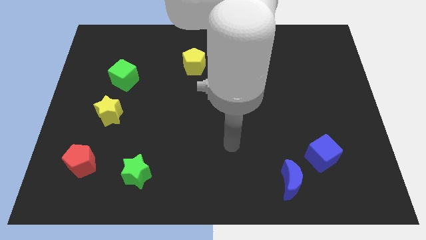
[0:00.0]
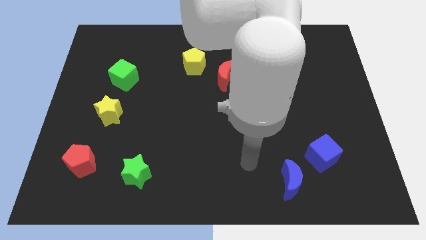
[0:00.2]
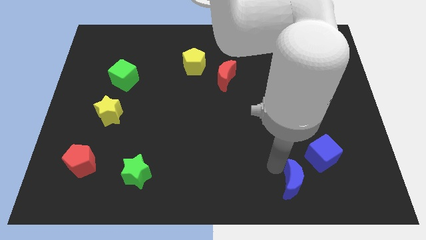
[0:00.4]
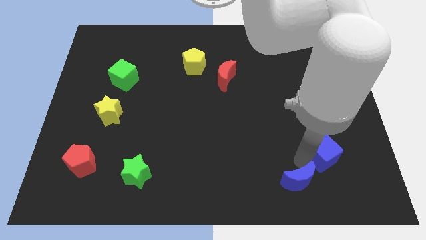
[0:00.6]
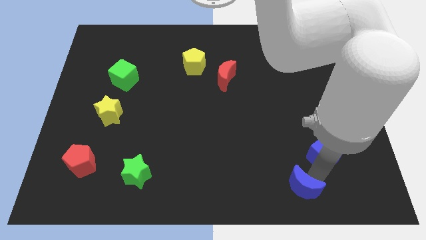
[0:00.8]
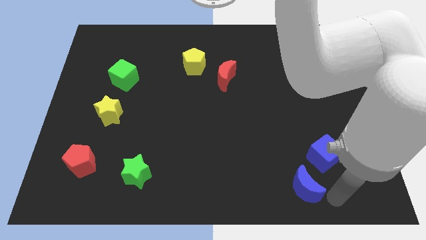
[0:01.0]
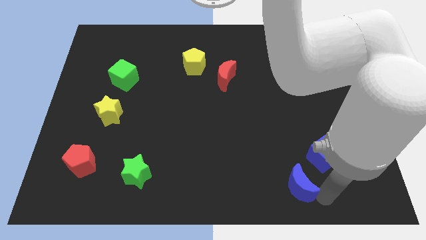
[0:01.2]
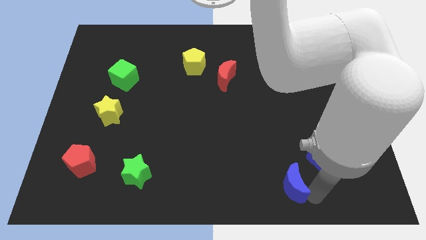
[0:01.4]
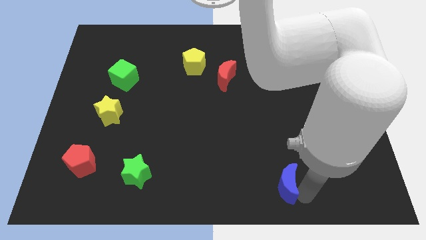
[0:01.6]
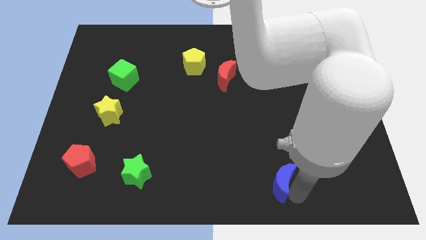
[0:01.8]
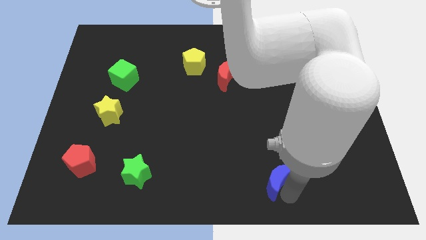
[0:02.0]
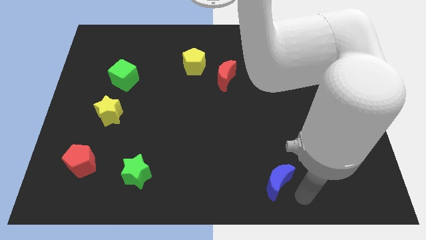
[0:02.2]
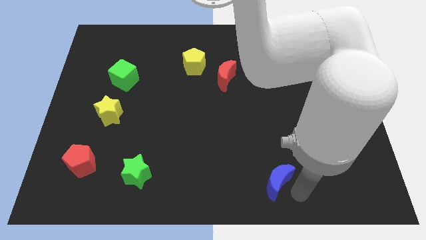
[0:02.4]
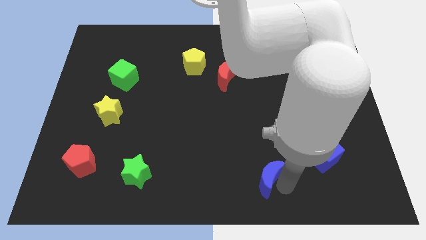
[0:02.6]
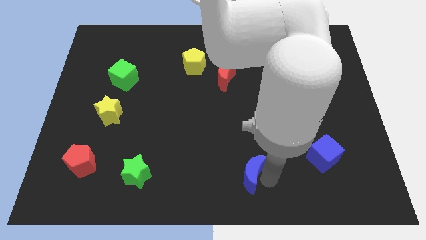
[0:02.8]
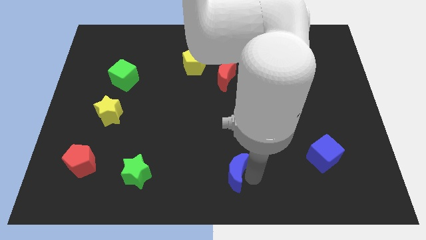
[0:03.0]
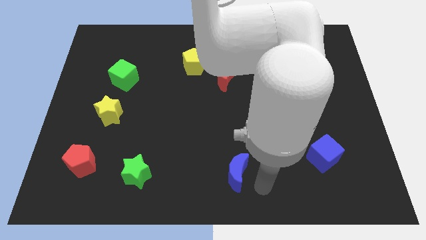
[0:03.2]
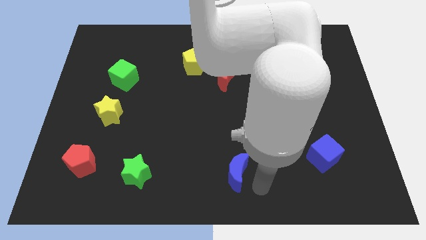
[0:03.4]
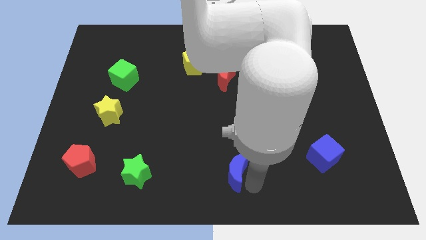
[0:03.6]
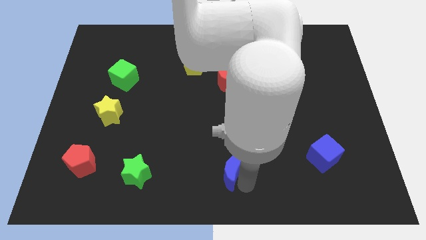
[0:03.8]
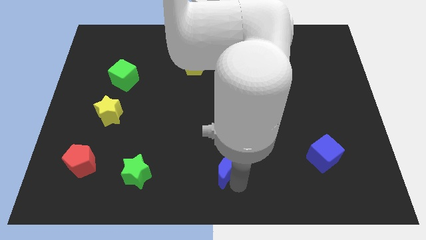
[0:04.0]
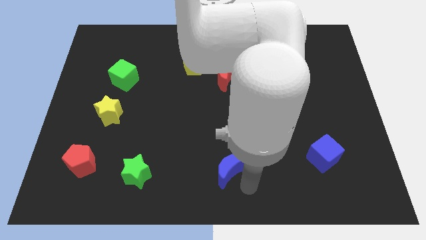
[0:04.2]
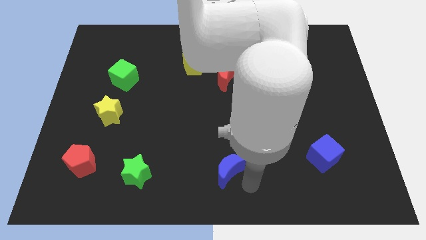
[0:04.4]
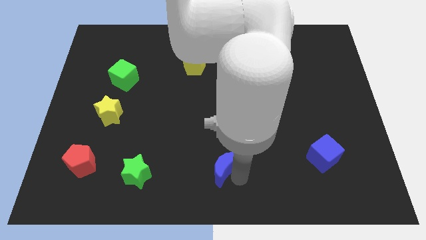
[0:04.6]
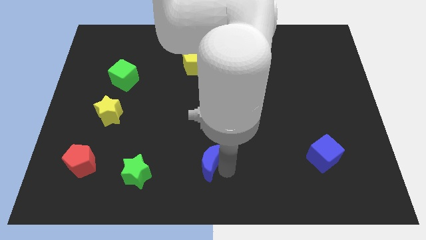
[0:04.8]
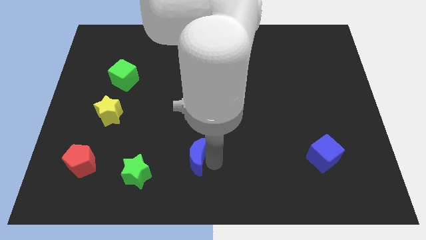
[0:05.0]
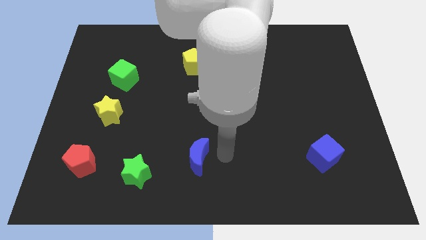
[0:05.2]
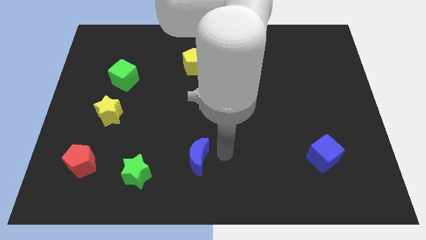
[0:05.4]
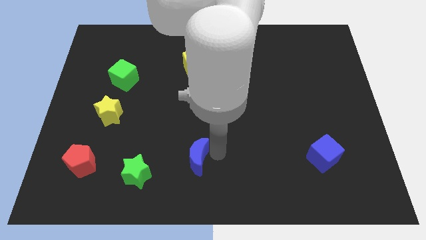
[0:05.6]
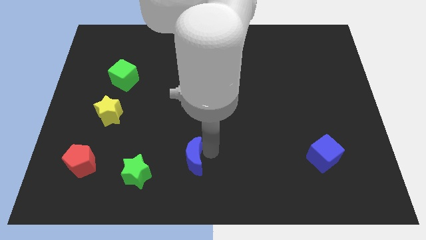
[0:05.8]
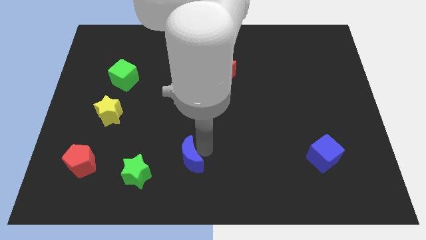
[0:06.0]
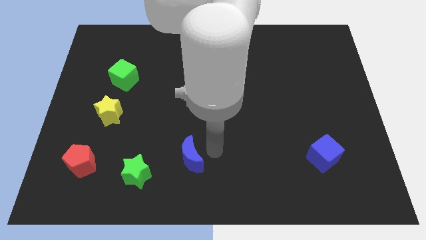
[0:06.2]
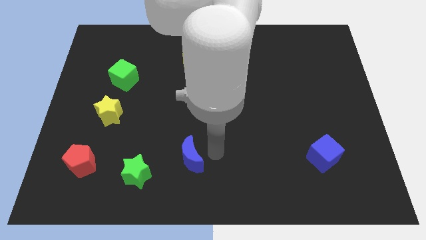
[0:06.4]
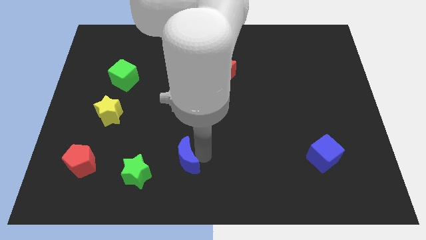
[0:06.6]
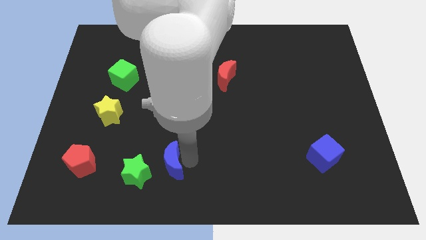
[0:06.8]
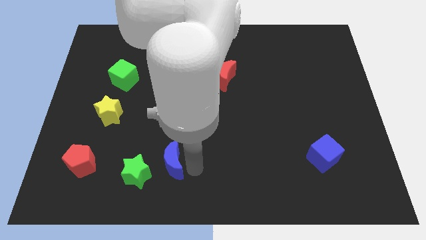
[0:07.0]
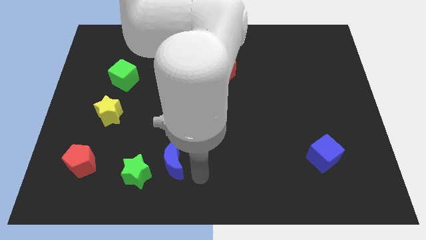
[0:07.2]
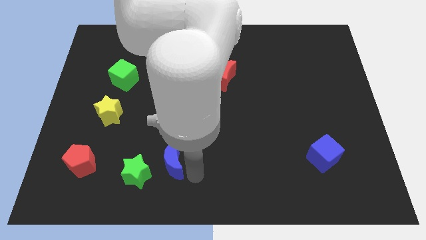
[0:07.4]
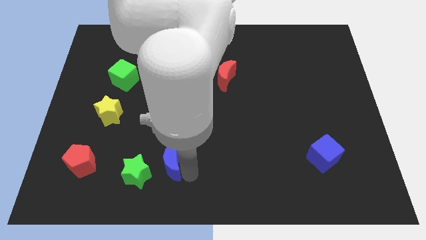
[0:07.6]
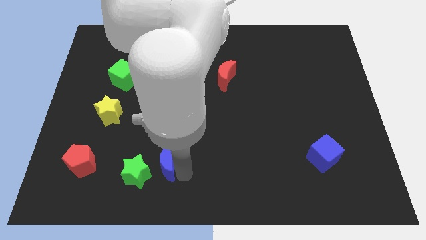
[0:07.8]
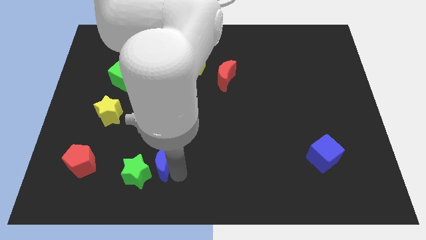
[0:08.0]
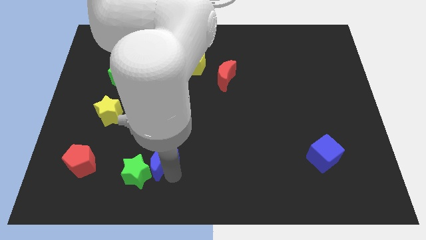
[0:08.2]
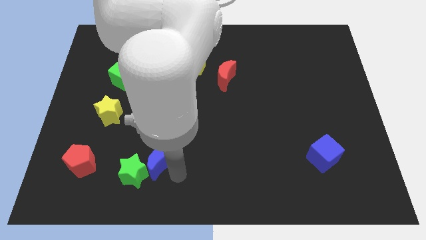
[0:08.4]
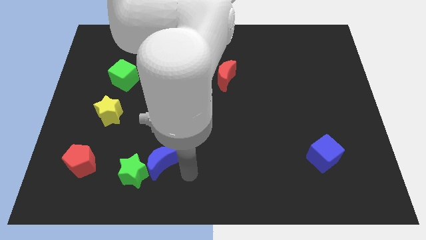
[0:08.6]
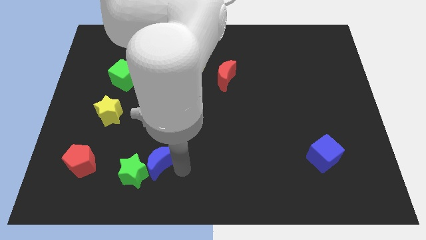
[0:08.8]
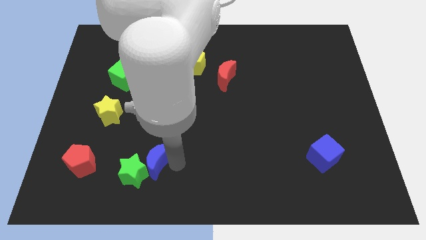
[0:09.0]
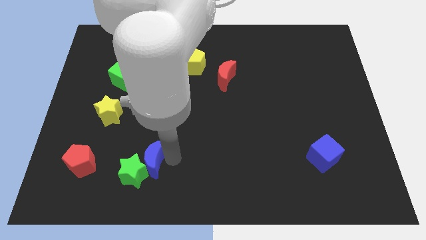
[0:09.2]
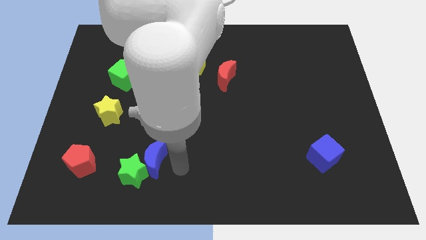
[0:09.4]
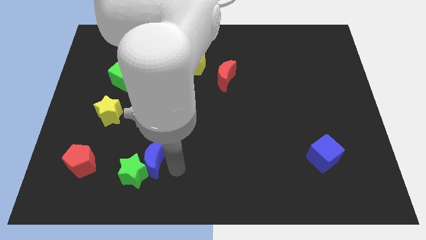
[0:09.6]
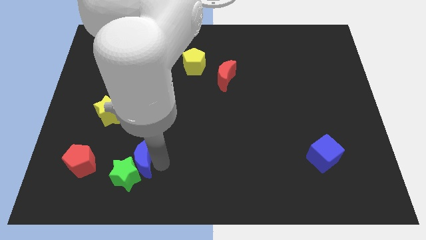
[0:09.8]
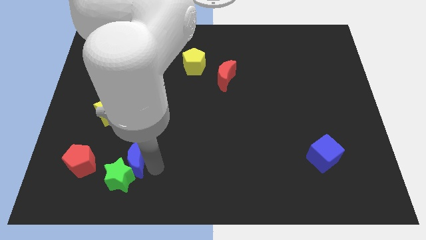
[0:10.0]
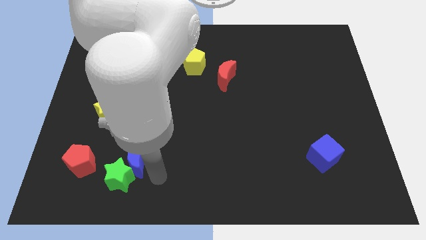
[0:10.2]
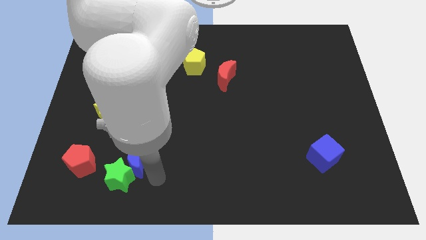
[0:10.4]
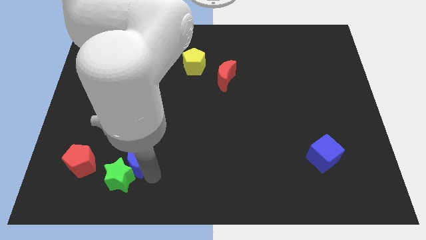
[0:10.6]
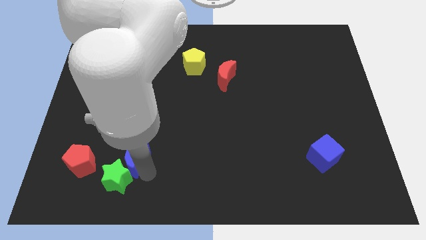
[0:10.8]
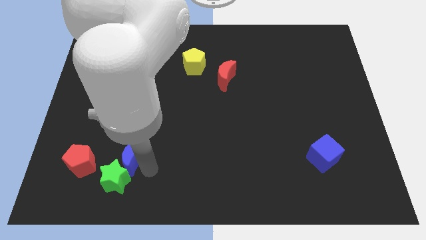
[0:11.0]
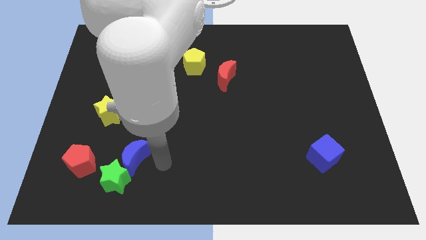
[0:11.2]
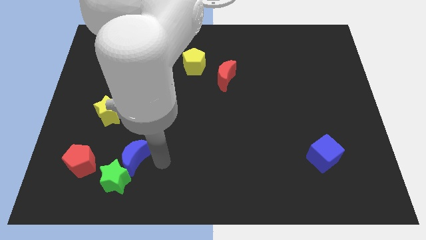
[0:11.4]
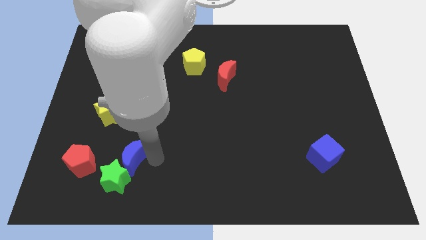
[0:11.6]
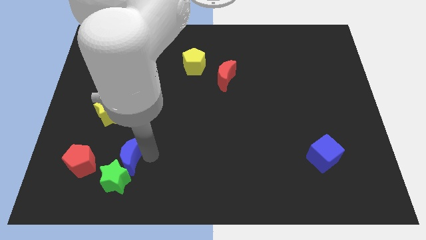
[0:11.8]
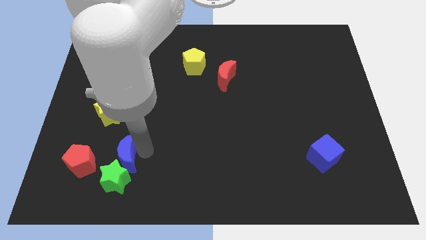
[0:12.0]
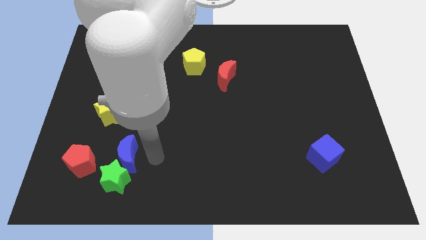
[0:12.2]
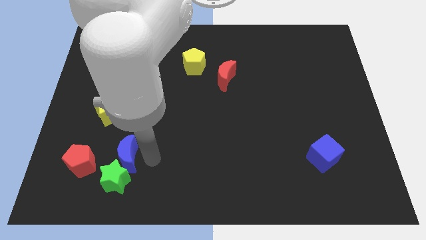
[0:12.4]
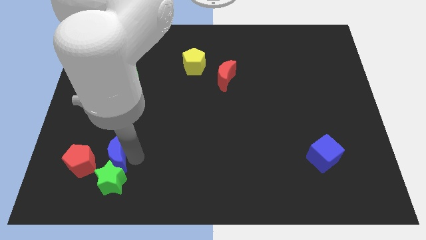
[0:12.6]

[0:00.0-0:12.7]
put the blue moon to the bottom of the yellow star
